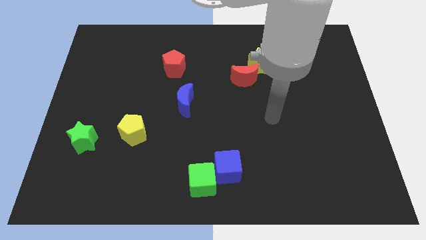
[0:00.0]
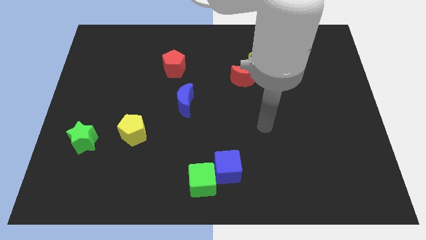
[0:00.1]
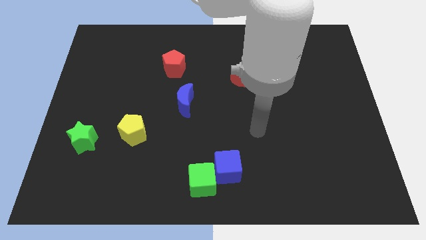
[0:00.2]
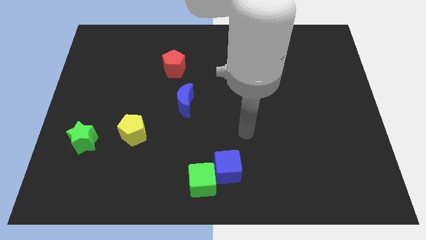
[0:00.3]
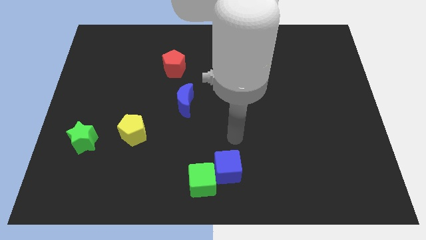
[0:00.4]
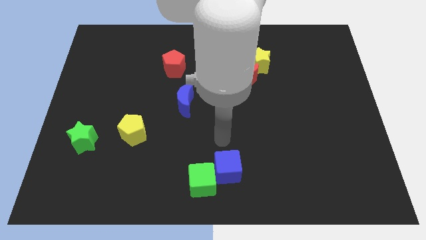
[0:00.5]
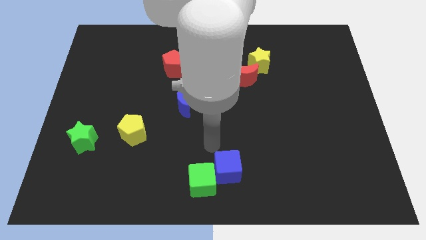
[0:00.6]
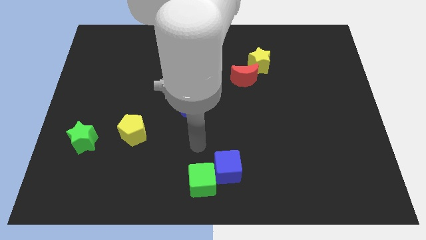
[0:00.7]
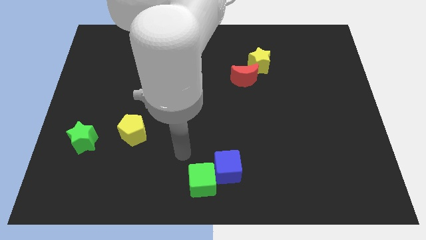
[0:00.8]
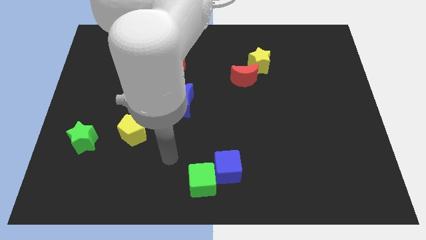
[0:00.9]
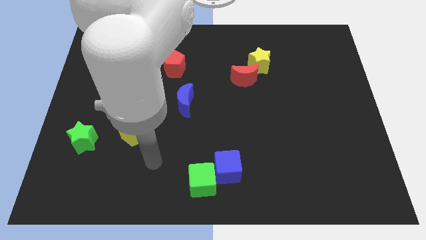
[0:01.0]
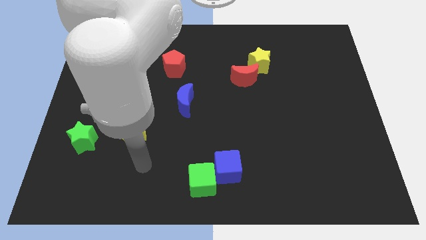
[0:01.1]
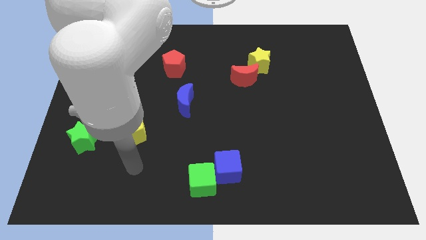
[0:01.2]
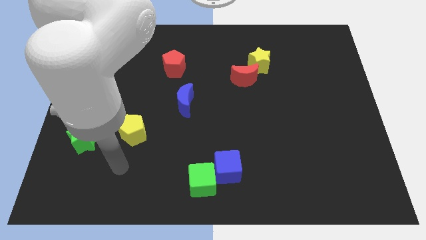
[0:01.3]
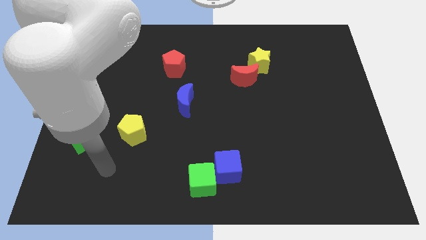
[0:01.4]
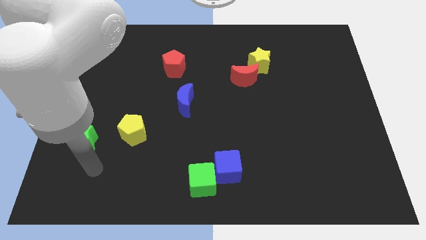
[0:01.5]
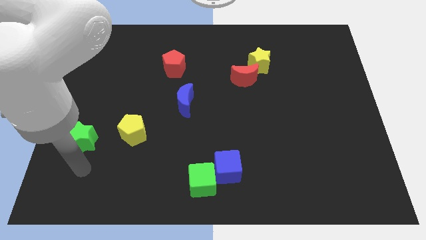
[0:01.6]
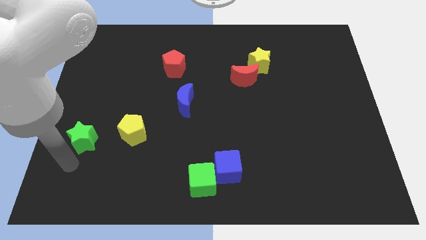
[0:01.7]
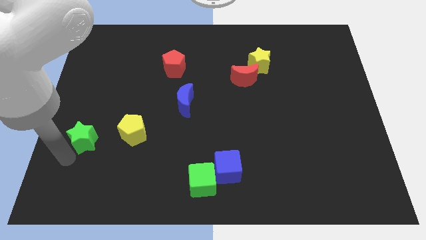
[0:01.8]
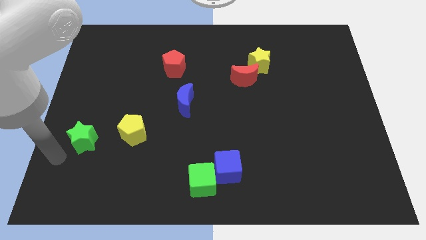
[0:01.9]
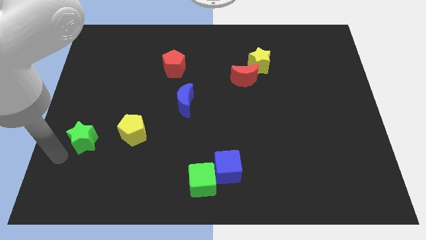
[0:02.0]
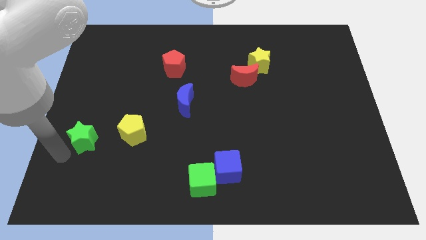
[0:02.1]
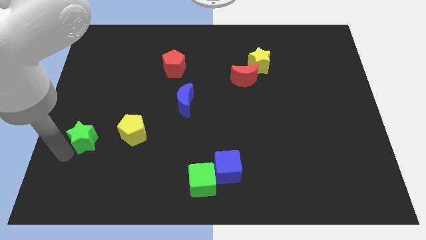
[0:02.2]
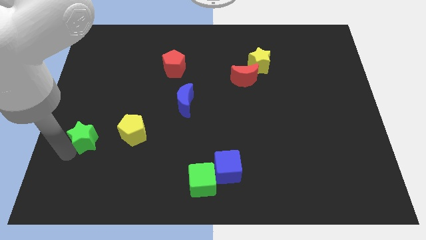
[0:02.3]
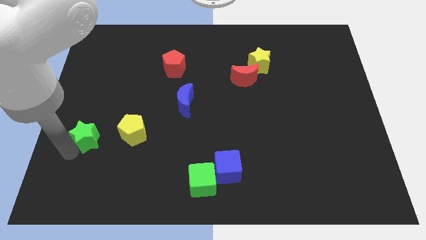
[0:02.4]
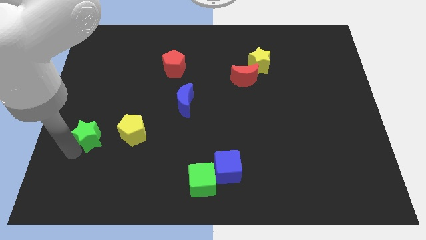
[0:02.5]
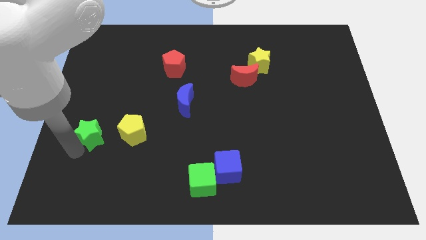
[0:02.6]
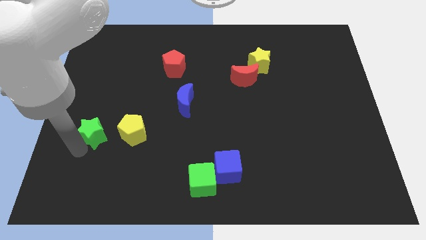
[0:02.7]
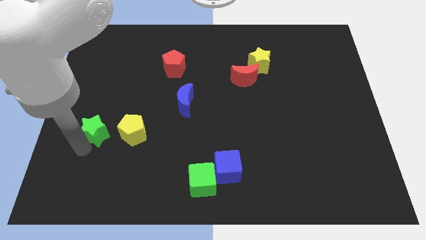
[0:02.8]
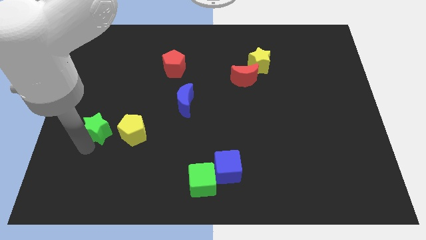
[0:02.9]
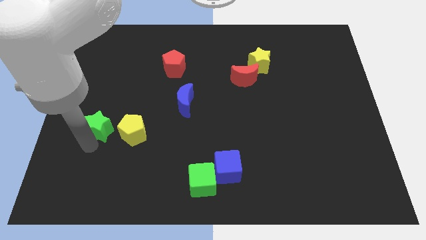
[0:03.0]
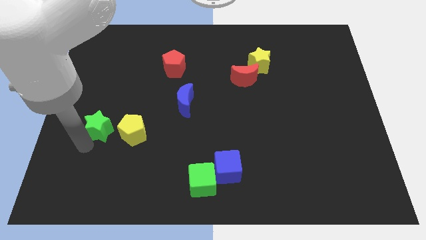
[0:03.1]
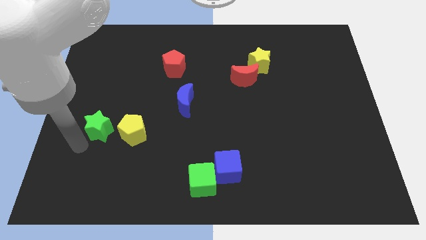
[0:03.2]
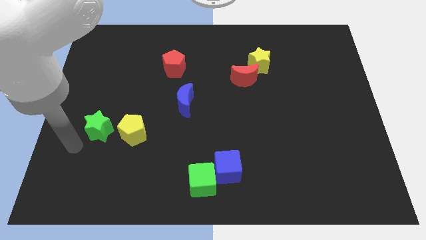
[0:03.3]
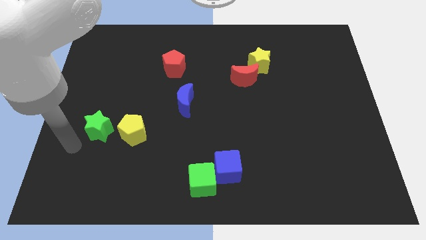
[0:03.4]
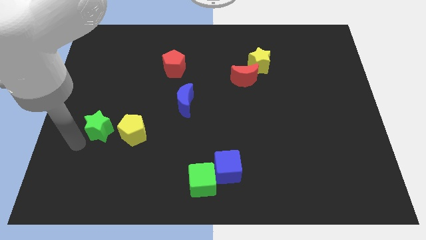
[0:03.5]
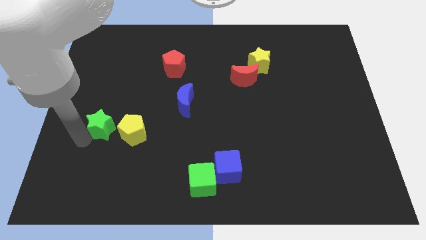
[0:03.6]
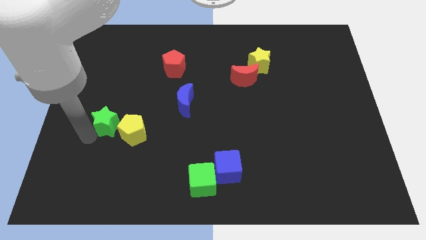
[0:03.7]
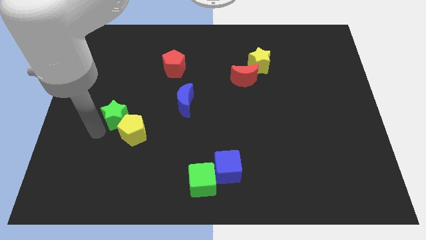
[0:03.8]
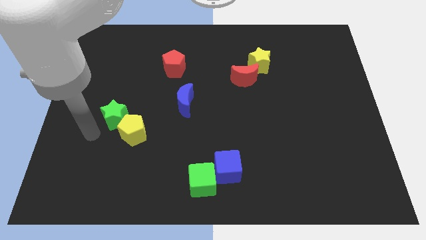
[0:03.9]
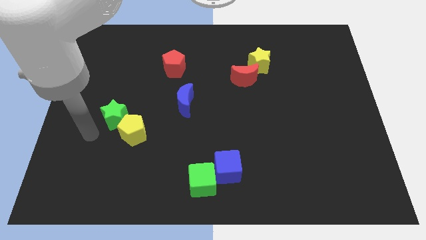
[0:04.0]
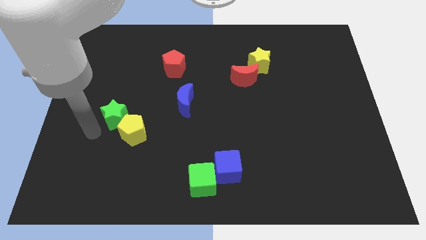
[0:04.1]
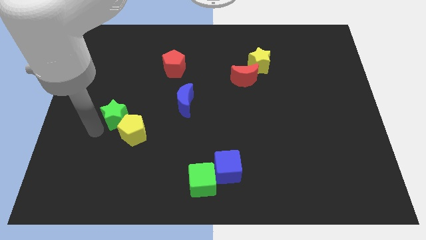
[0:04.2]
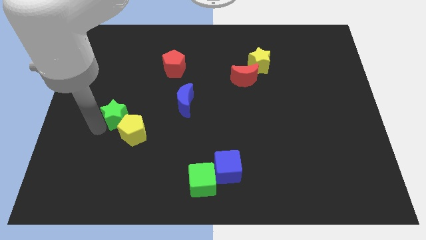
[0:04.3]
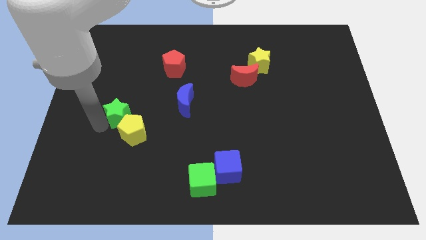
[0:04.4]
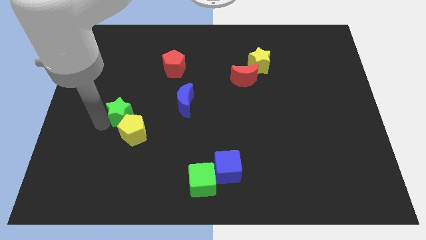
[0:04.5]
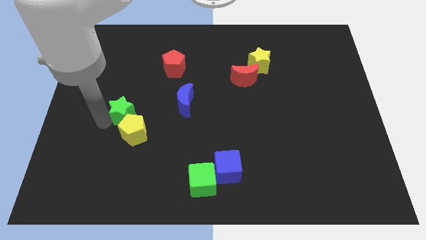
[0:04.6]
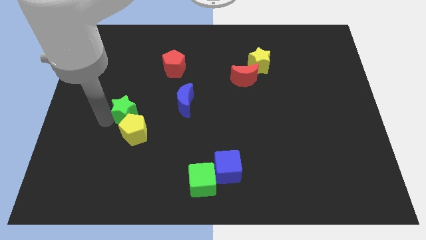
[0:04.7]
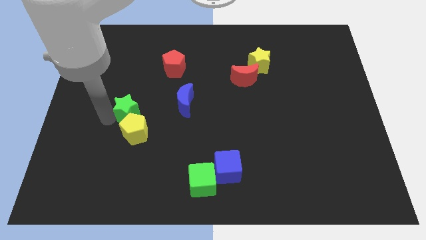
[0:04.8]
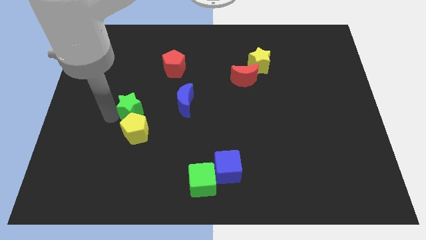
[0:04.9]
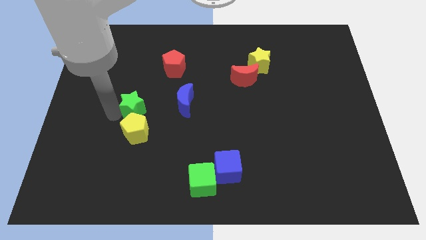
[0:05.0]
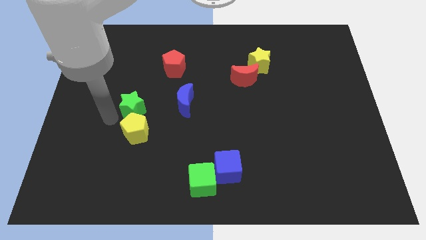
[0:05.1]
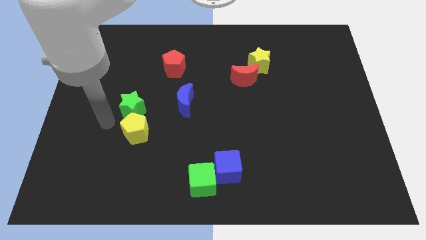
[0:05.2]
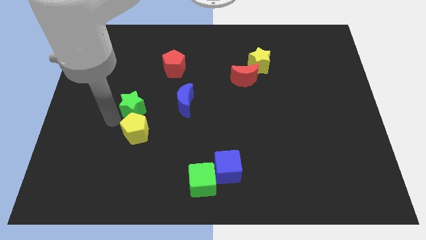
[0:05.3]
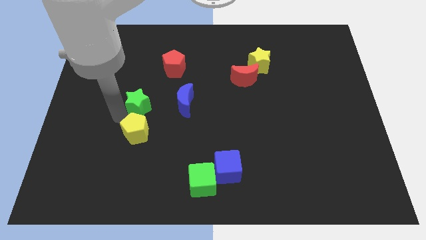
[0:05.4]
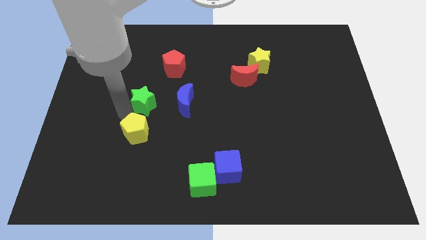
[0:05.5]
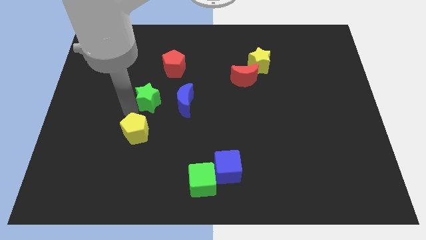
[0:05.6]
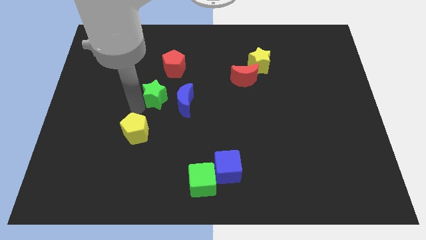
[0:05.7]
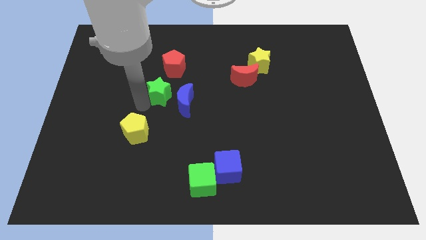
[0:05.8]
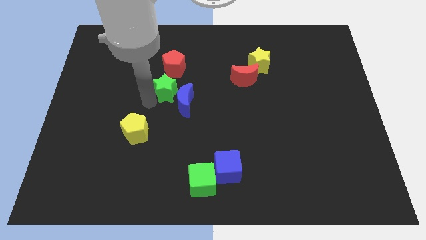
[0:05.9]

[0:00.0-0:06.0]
push the green star to the middle of the board

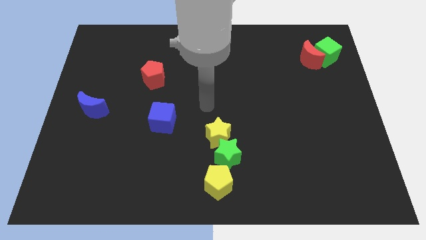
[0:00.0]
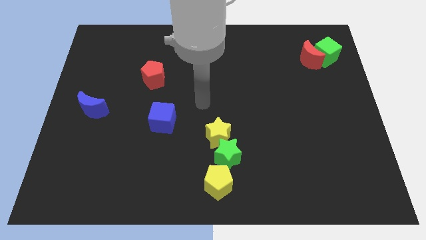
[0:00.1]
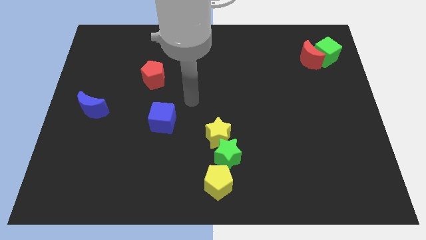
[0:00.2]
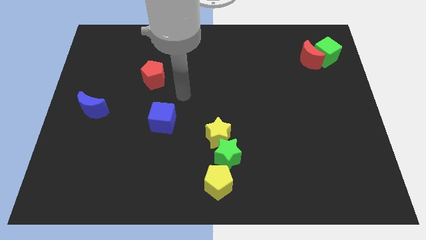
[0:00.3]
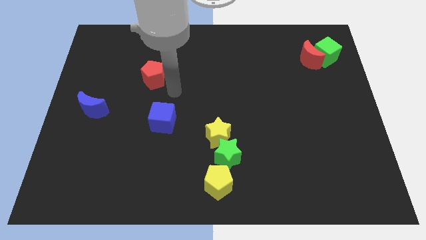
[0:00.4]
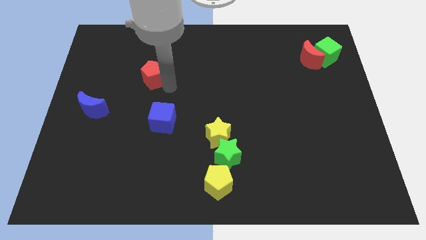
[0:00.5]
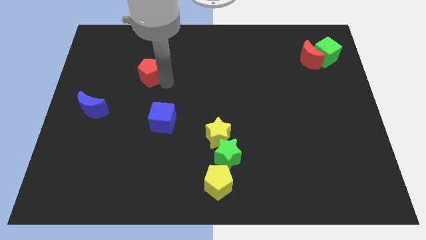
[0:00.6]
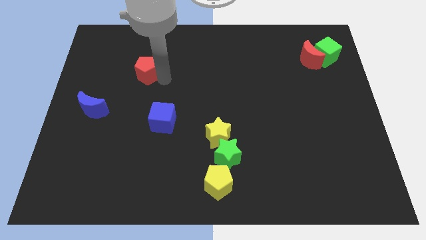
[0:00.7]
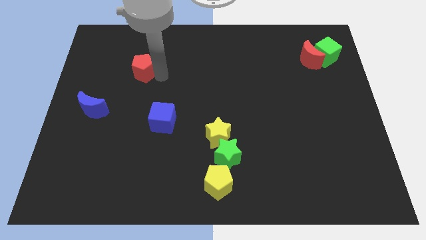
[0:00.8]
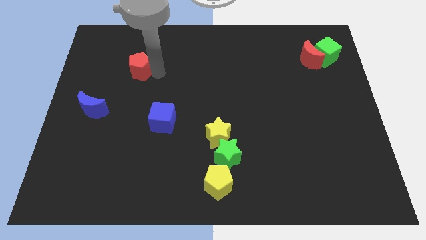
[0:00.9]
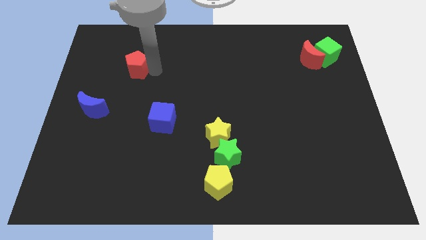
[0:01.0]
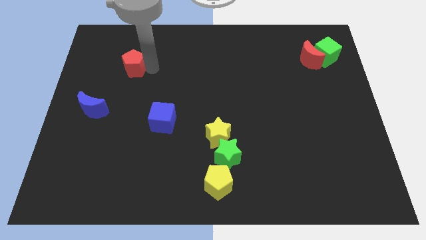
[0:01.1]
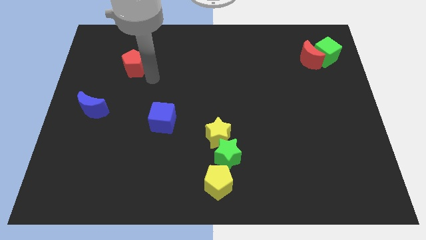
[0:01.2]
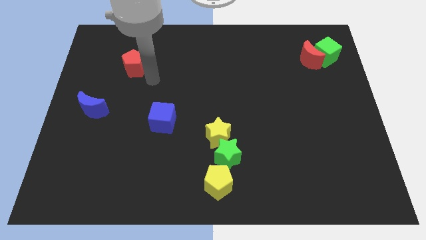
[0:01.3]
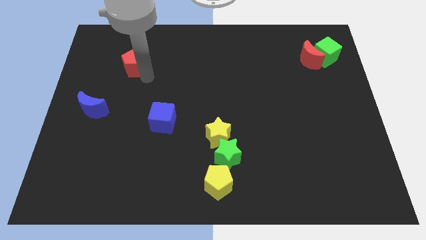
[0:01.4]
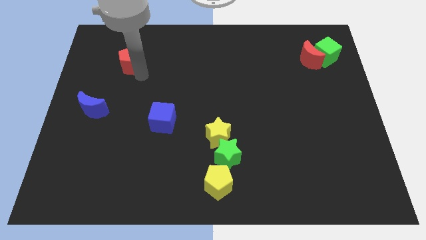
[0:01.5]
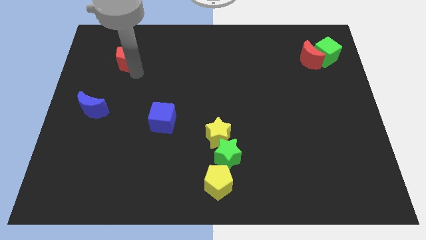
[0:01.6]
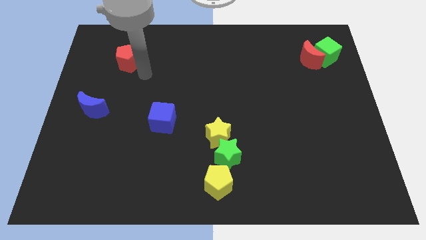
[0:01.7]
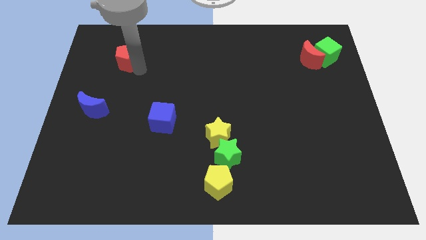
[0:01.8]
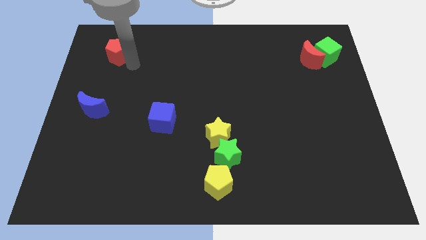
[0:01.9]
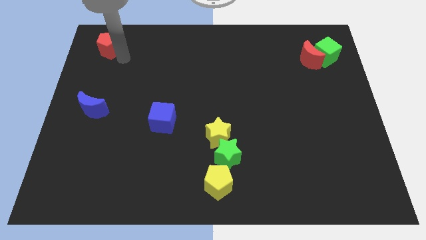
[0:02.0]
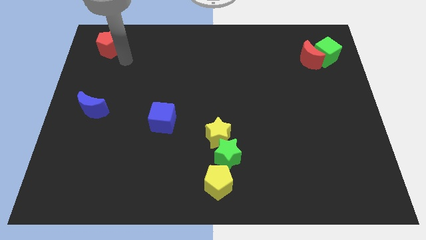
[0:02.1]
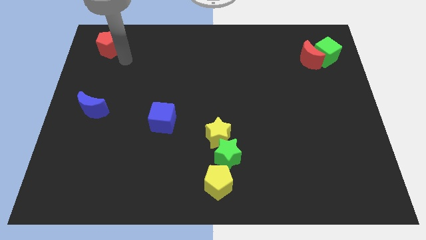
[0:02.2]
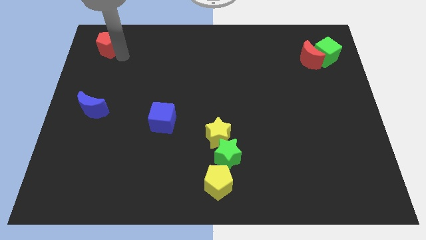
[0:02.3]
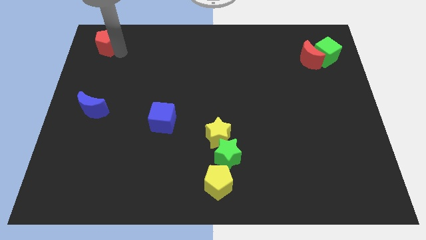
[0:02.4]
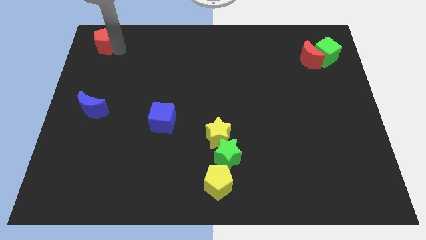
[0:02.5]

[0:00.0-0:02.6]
move the red pentagon to the top left
